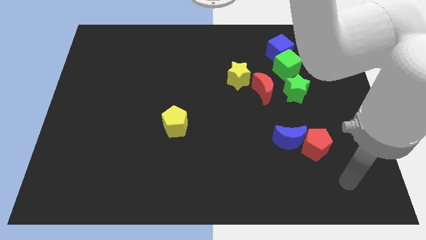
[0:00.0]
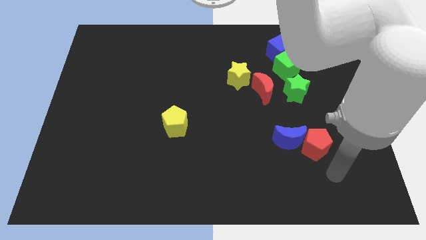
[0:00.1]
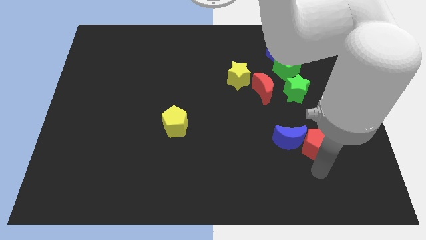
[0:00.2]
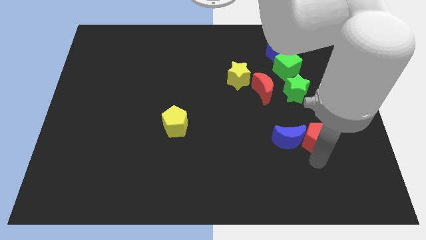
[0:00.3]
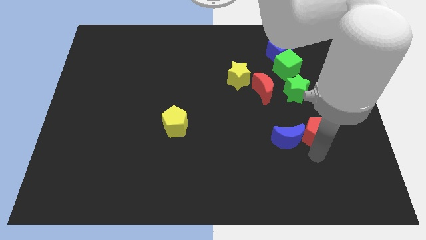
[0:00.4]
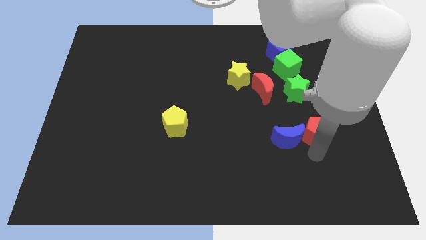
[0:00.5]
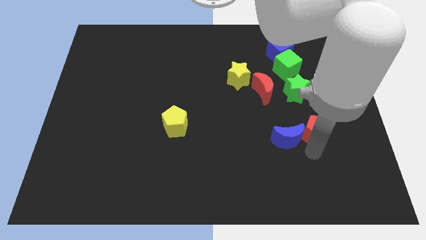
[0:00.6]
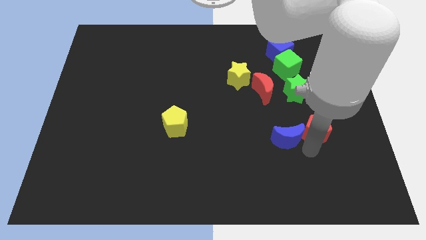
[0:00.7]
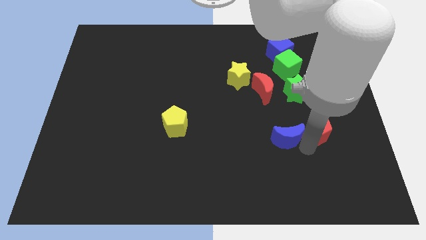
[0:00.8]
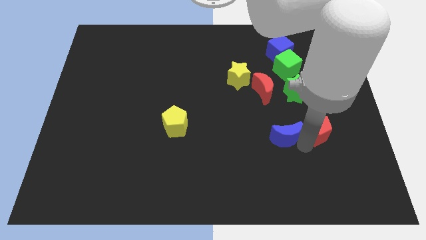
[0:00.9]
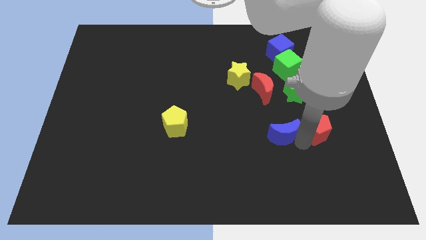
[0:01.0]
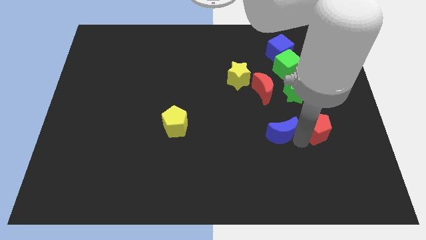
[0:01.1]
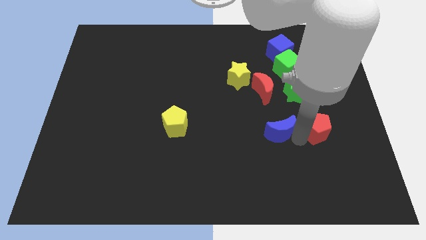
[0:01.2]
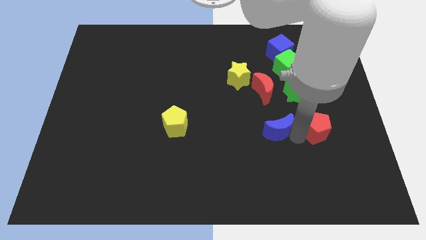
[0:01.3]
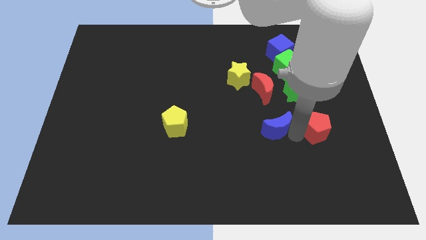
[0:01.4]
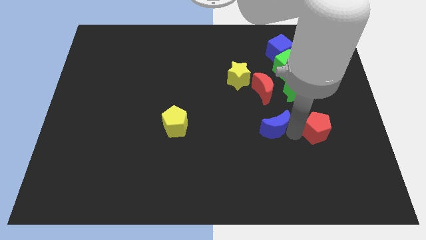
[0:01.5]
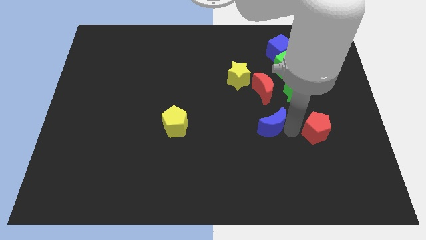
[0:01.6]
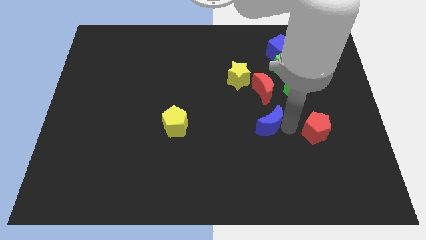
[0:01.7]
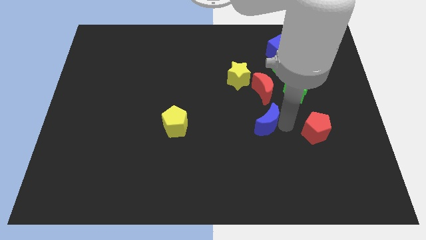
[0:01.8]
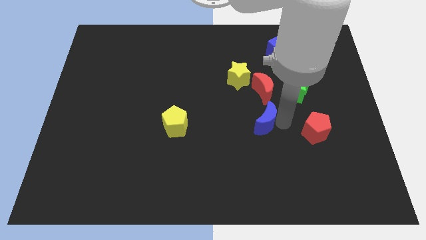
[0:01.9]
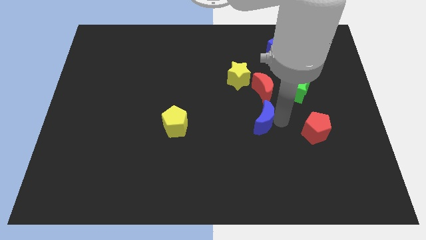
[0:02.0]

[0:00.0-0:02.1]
slide the blue moon a little bit diagonally up and to the left

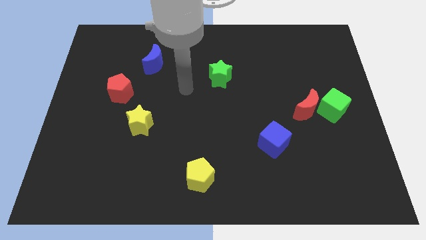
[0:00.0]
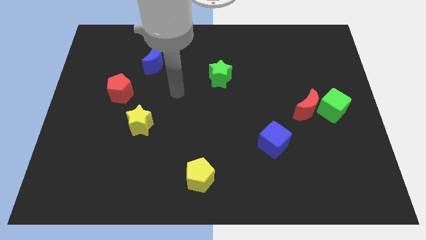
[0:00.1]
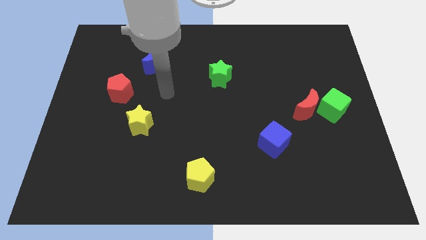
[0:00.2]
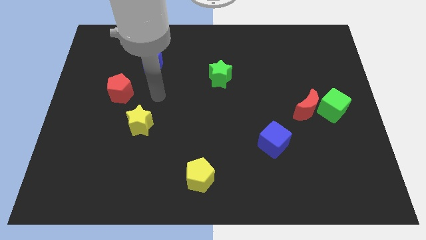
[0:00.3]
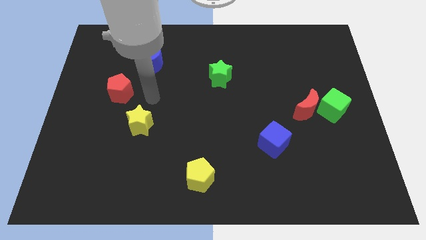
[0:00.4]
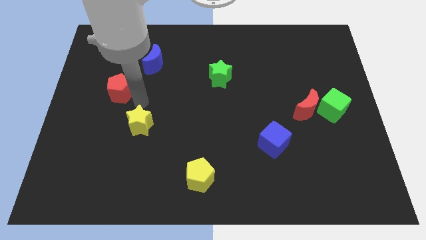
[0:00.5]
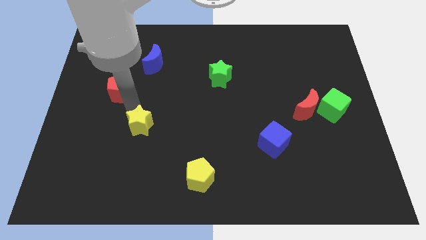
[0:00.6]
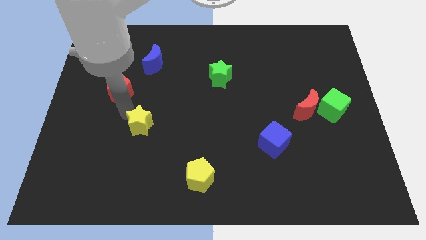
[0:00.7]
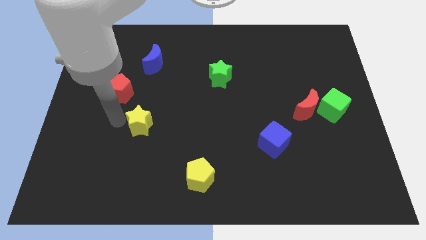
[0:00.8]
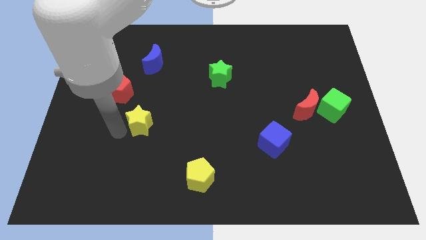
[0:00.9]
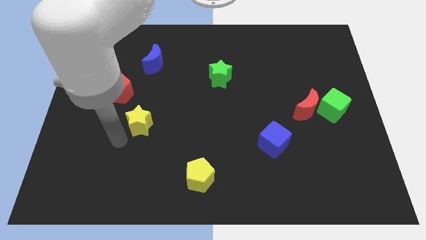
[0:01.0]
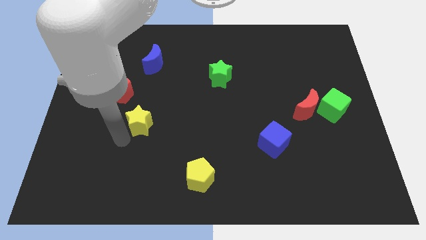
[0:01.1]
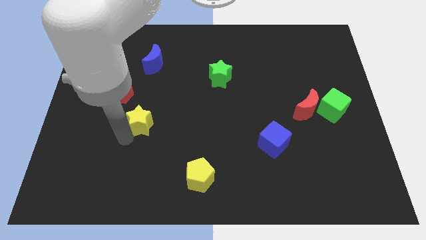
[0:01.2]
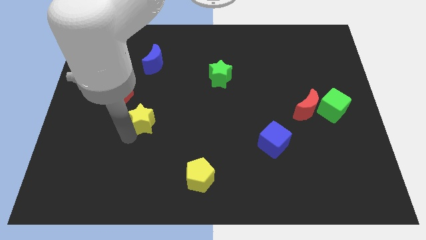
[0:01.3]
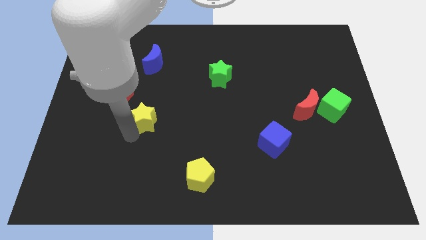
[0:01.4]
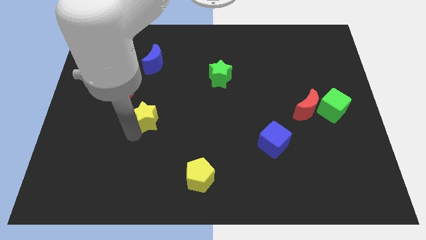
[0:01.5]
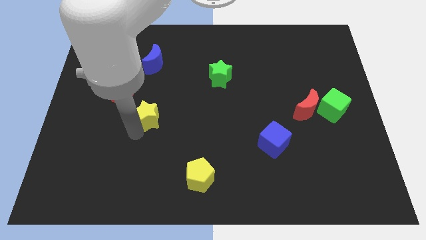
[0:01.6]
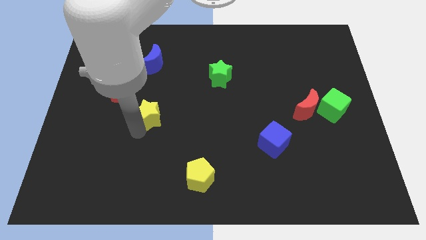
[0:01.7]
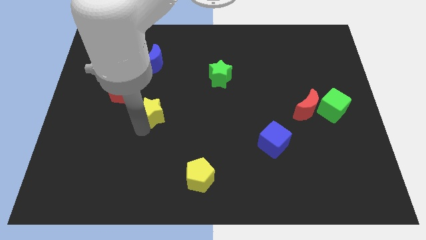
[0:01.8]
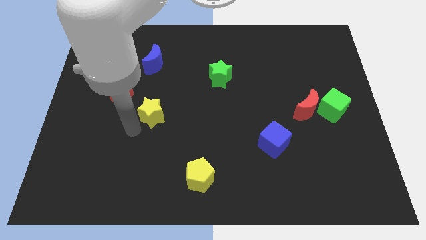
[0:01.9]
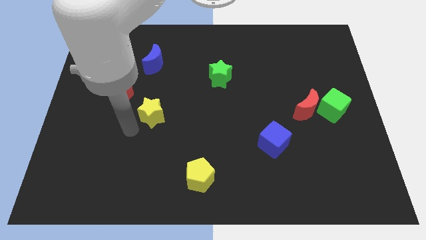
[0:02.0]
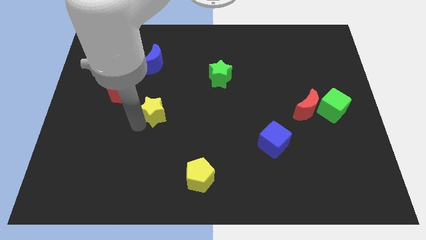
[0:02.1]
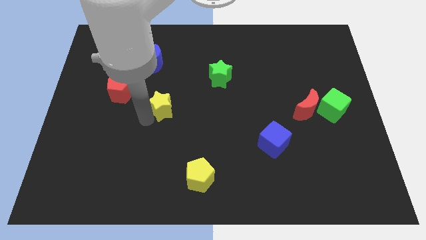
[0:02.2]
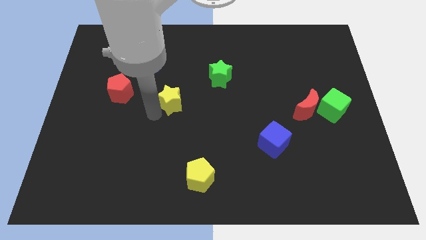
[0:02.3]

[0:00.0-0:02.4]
slightly slide the yellow star upwards and to the right

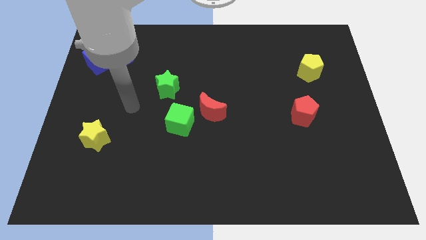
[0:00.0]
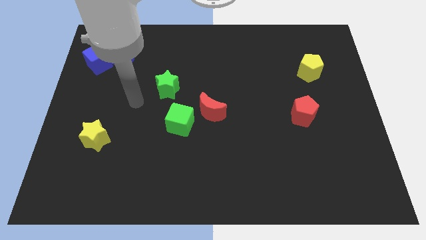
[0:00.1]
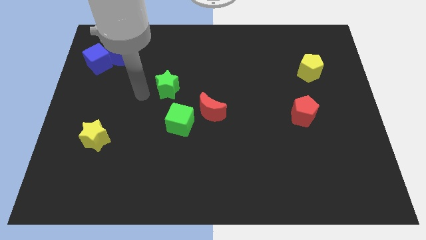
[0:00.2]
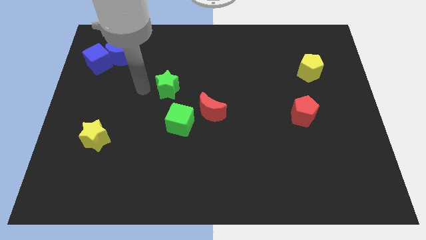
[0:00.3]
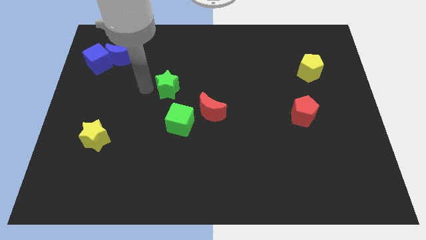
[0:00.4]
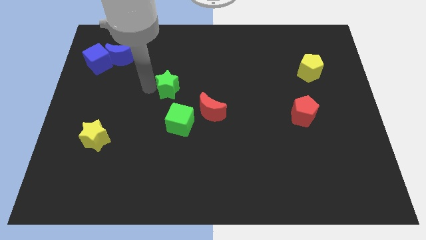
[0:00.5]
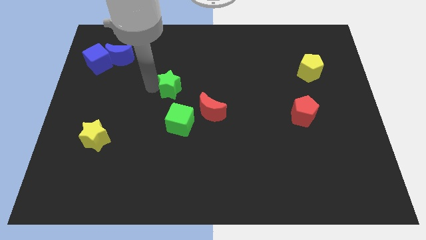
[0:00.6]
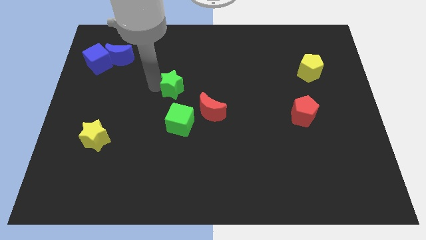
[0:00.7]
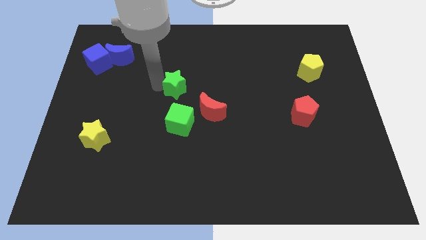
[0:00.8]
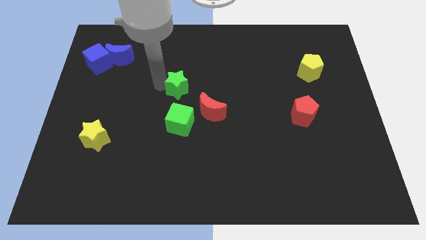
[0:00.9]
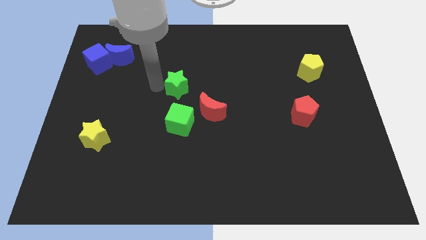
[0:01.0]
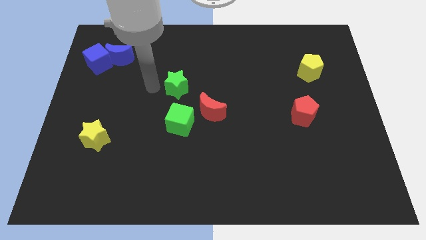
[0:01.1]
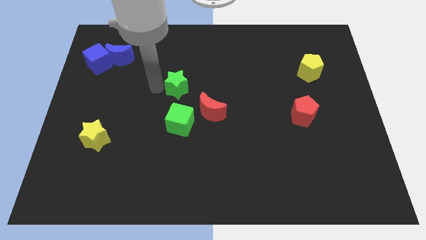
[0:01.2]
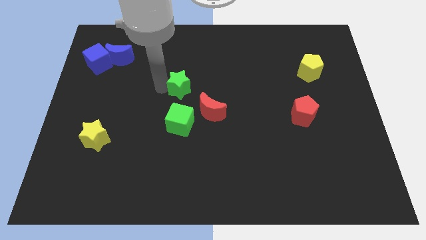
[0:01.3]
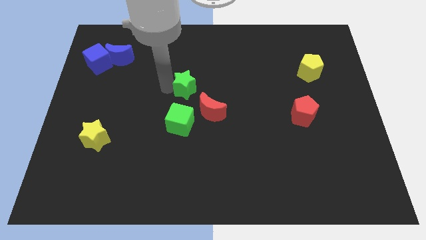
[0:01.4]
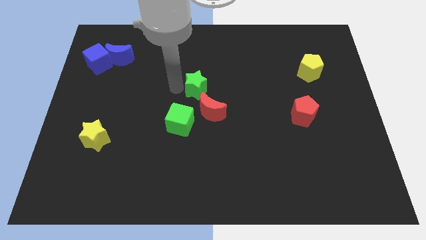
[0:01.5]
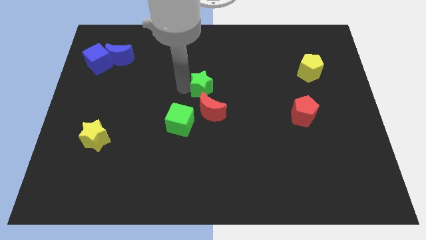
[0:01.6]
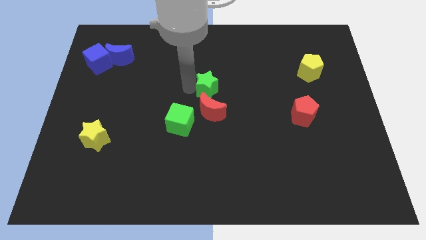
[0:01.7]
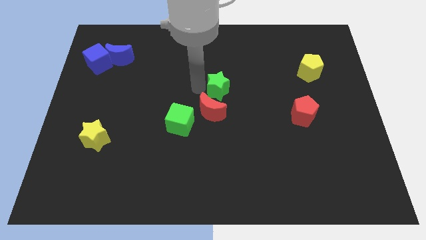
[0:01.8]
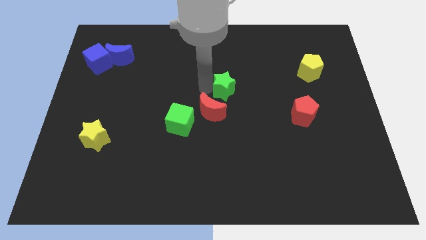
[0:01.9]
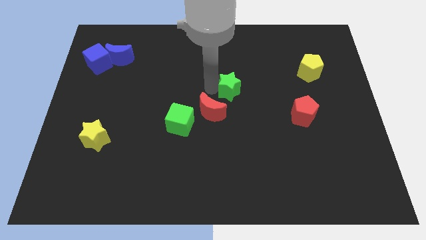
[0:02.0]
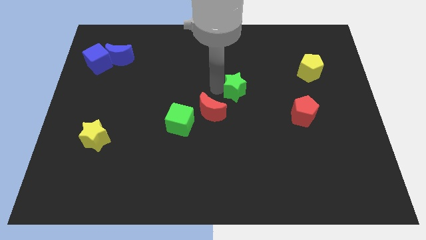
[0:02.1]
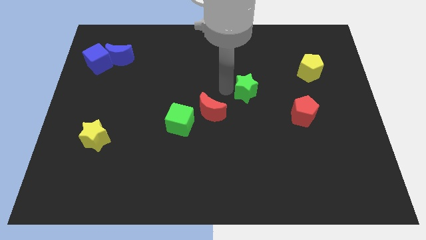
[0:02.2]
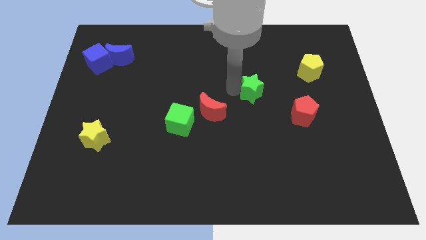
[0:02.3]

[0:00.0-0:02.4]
slide the green star right

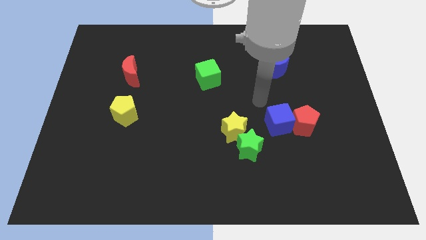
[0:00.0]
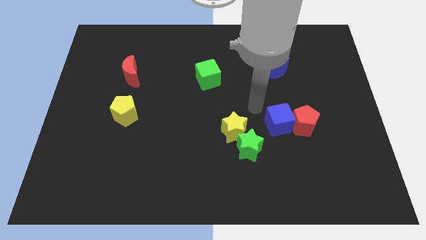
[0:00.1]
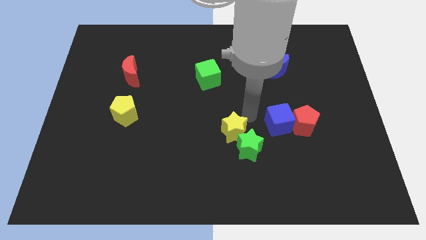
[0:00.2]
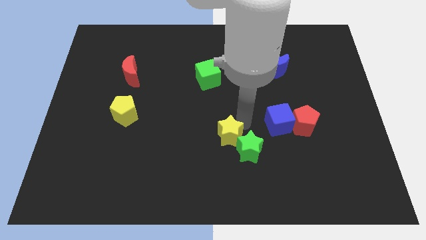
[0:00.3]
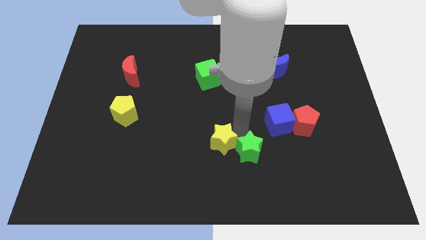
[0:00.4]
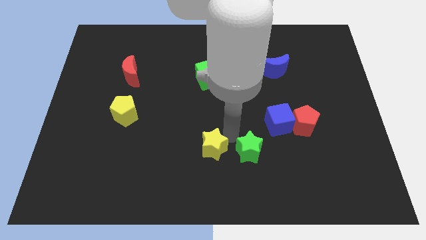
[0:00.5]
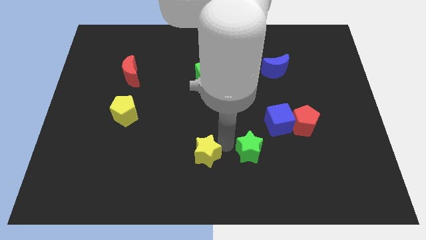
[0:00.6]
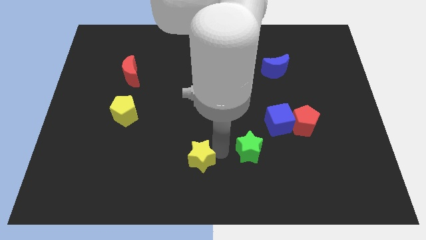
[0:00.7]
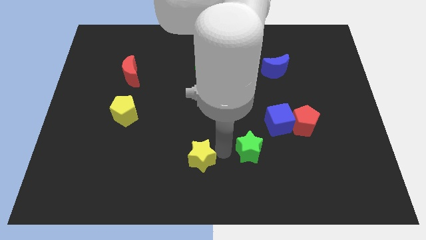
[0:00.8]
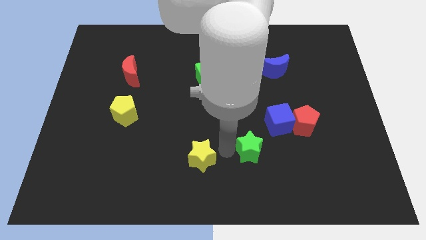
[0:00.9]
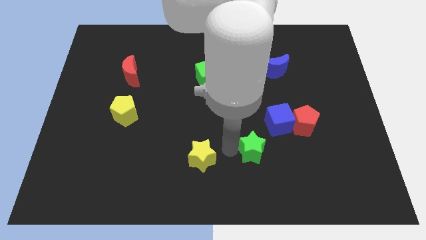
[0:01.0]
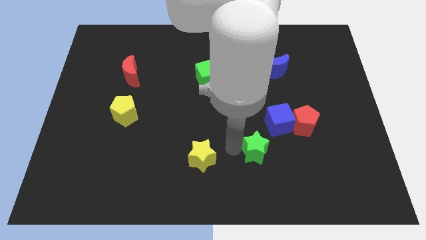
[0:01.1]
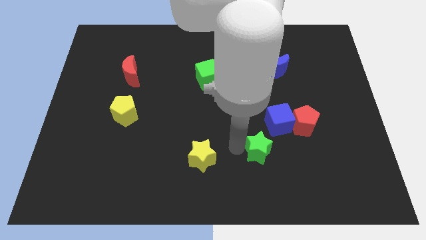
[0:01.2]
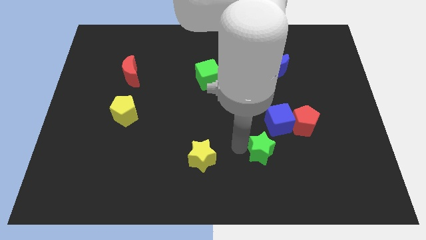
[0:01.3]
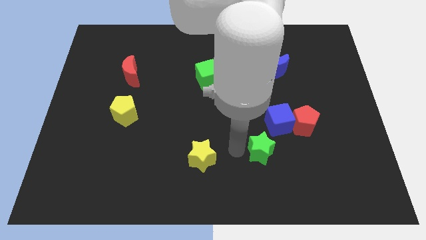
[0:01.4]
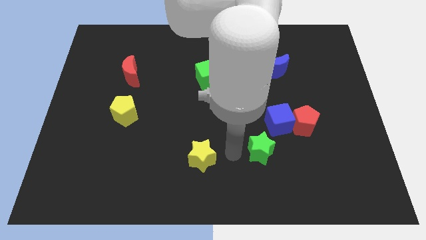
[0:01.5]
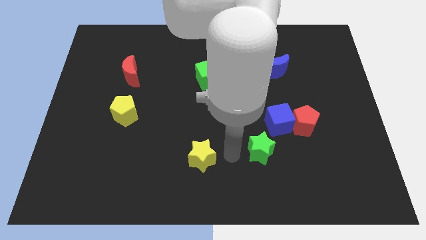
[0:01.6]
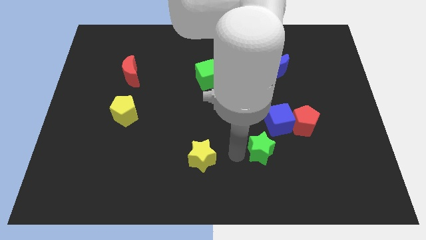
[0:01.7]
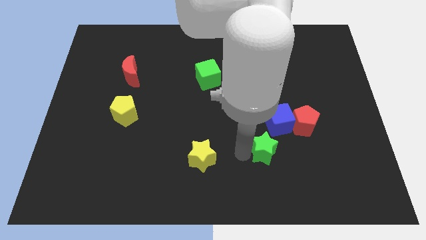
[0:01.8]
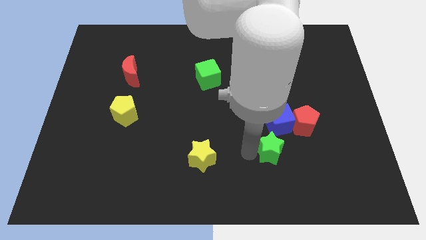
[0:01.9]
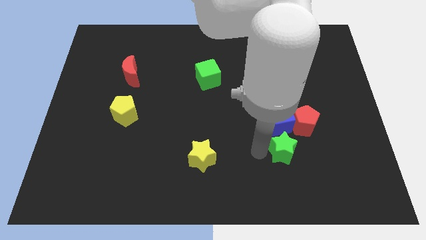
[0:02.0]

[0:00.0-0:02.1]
slightly slide the green star right
